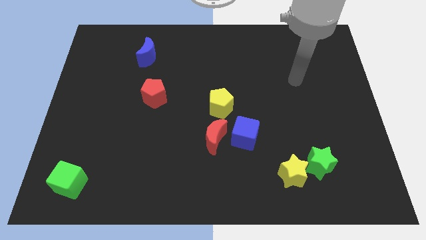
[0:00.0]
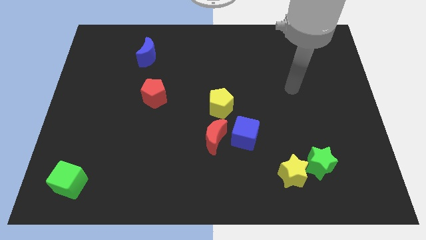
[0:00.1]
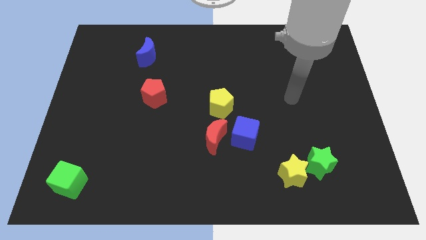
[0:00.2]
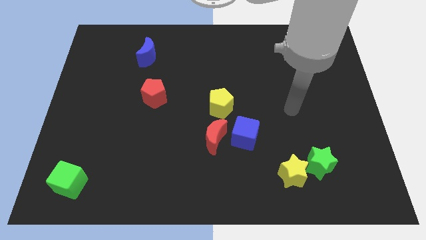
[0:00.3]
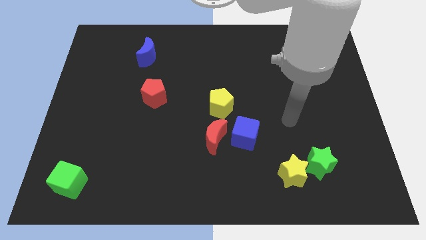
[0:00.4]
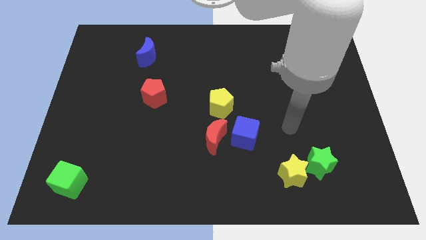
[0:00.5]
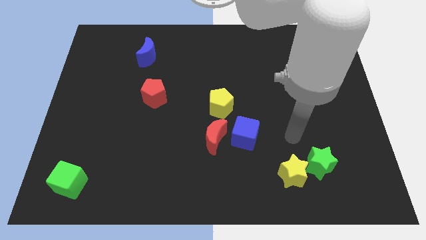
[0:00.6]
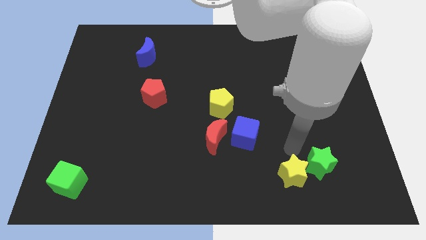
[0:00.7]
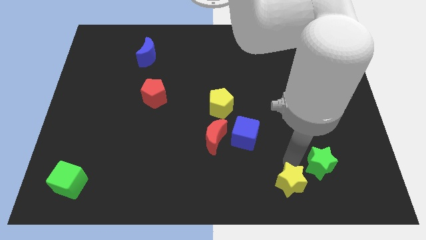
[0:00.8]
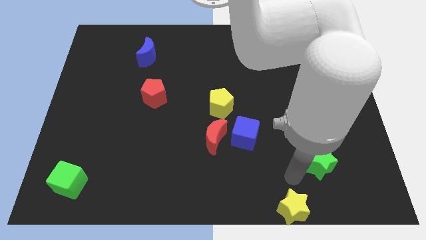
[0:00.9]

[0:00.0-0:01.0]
move the green star away from the yellow star

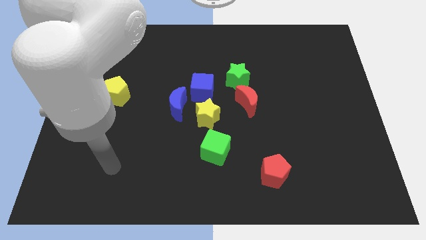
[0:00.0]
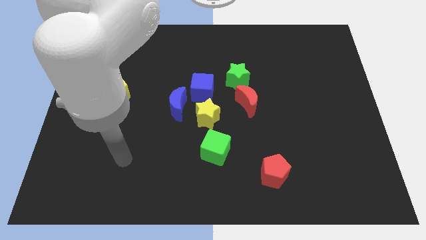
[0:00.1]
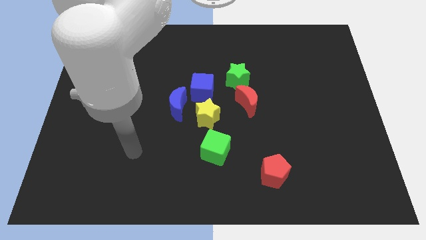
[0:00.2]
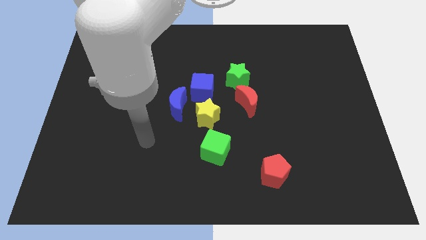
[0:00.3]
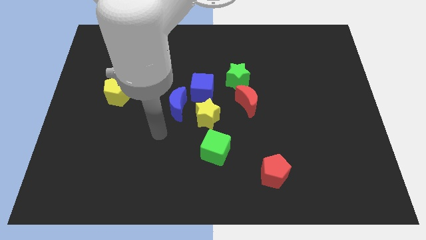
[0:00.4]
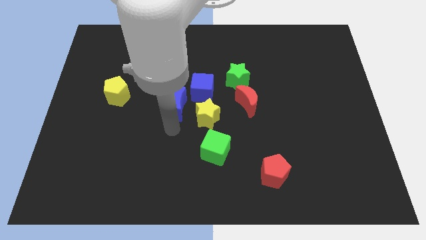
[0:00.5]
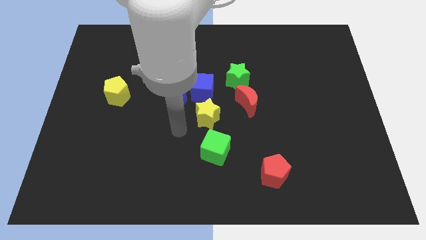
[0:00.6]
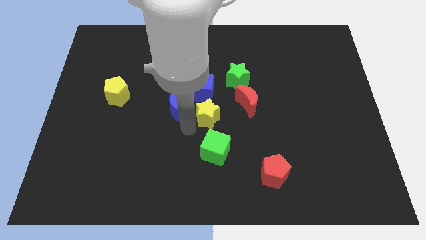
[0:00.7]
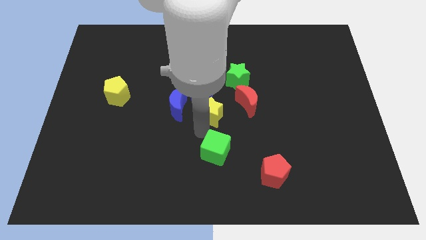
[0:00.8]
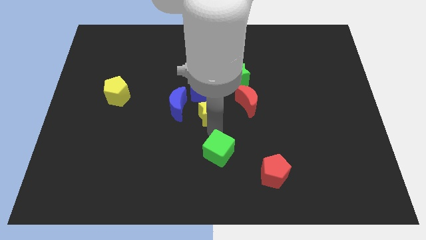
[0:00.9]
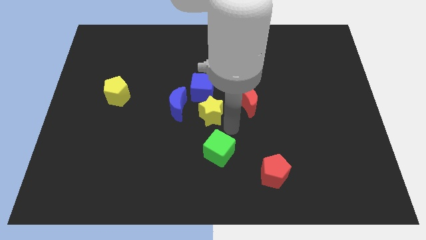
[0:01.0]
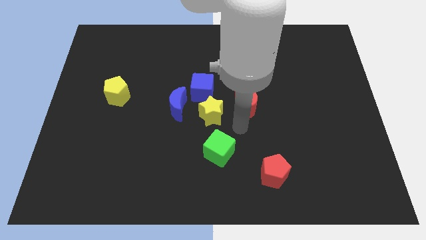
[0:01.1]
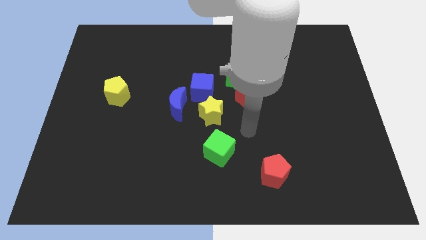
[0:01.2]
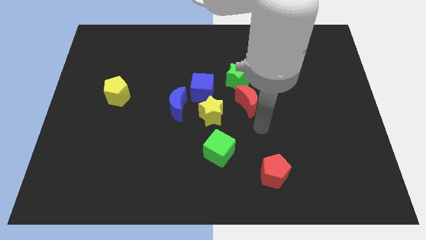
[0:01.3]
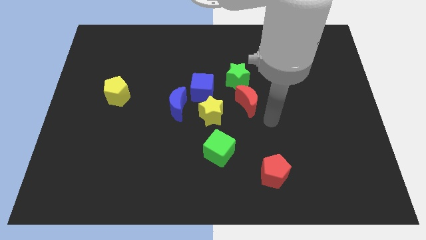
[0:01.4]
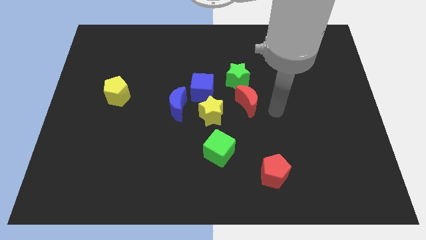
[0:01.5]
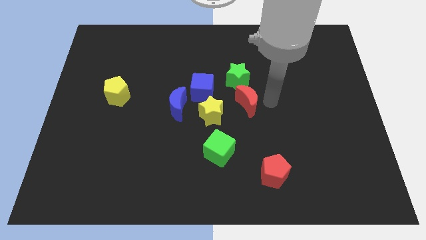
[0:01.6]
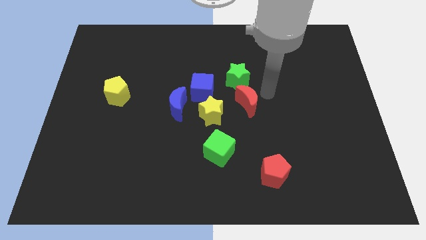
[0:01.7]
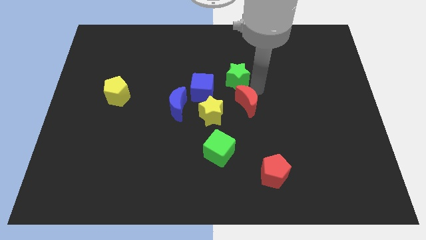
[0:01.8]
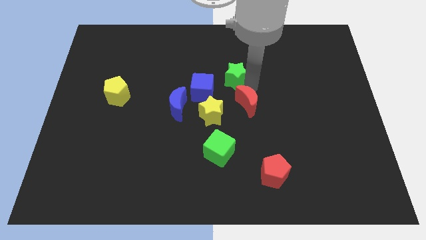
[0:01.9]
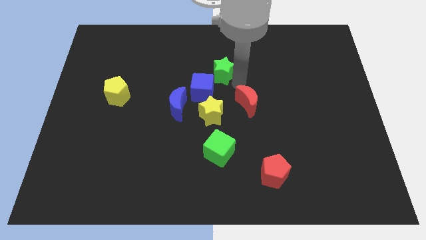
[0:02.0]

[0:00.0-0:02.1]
pull the red moon apart from the green star

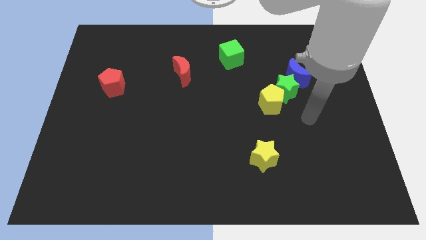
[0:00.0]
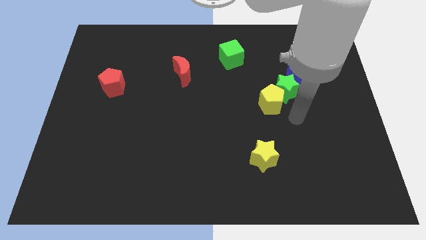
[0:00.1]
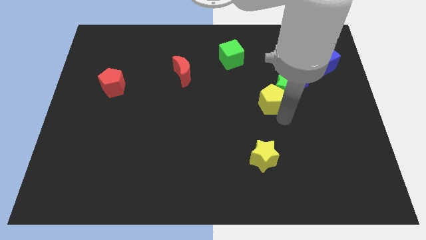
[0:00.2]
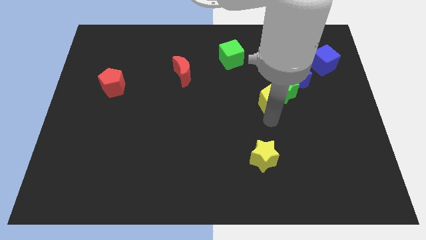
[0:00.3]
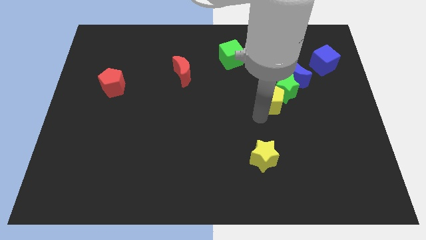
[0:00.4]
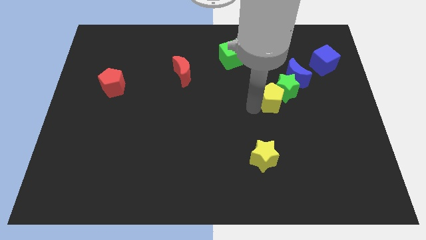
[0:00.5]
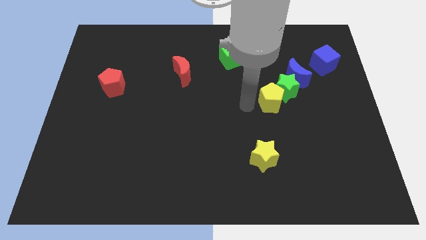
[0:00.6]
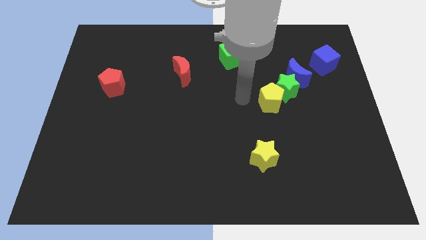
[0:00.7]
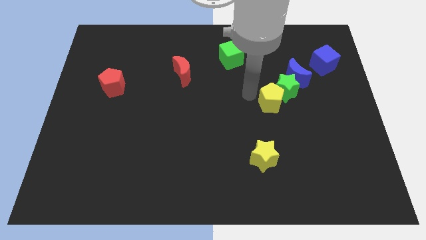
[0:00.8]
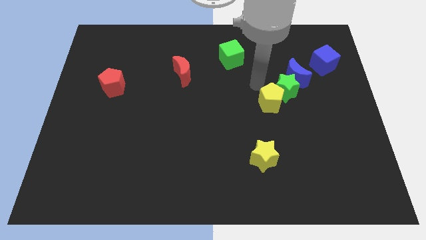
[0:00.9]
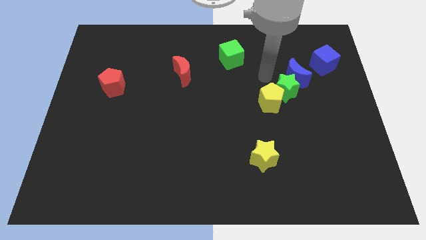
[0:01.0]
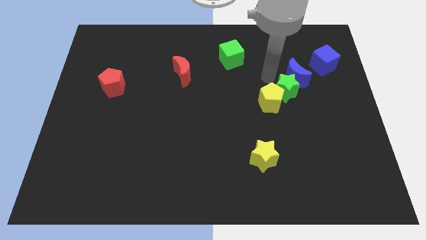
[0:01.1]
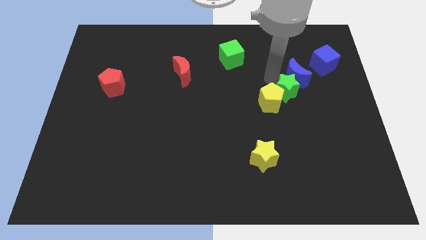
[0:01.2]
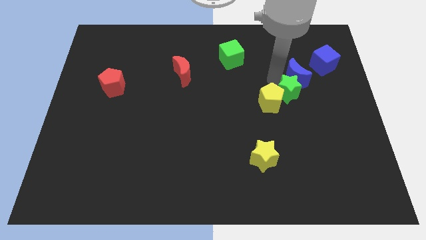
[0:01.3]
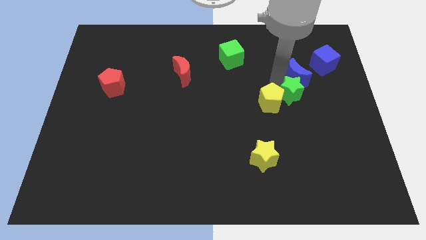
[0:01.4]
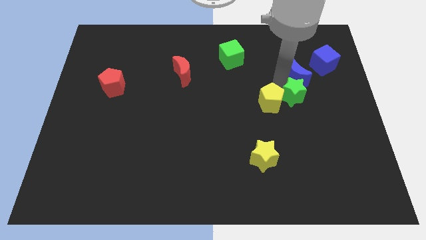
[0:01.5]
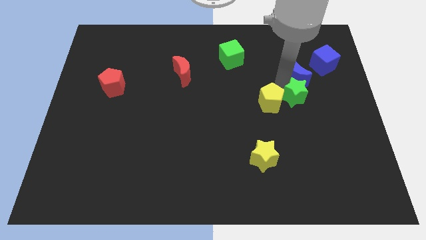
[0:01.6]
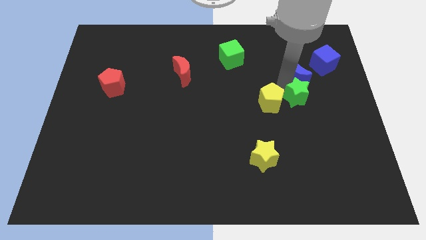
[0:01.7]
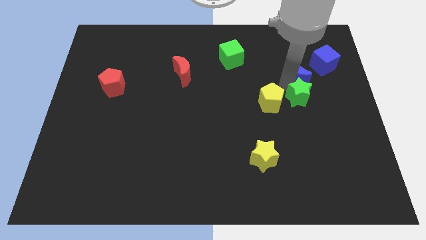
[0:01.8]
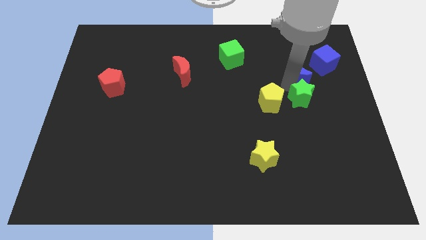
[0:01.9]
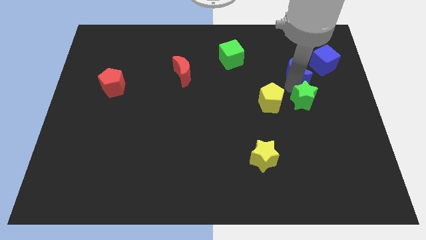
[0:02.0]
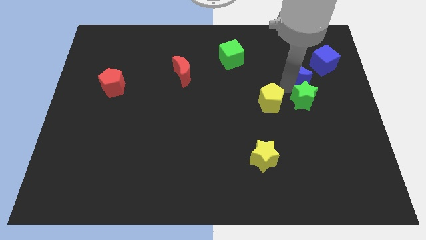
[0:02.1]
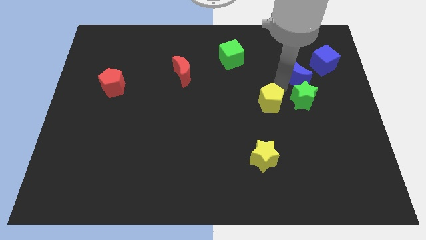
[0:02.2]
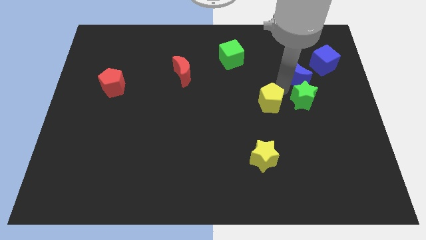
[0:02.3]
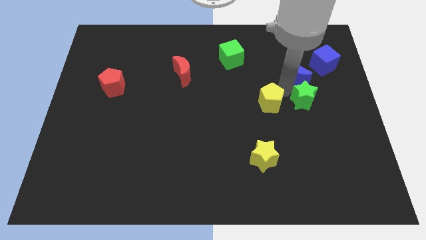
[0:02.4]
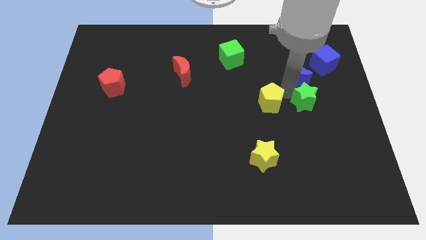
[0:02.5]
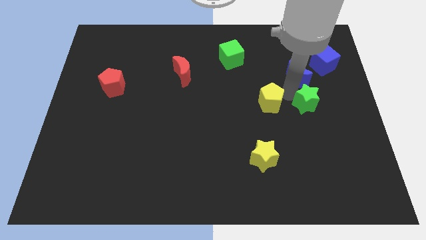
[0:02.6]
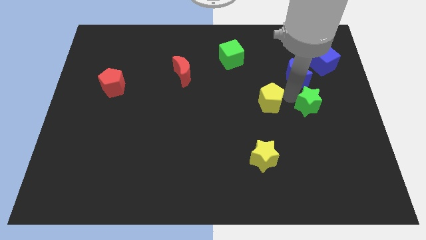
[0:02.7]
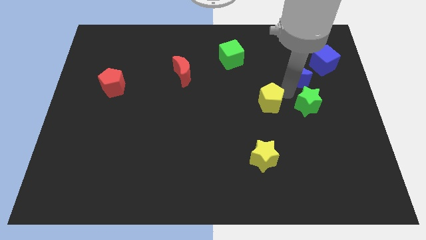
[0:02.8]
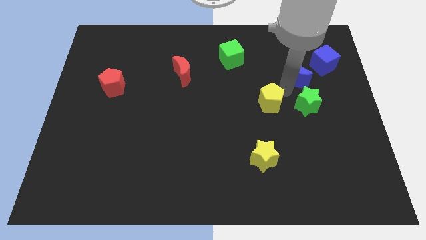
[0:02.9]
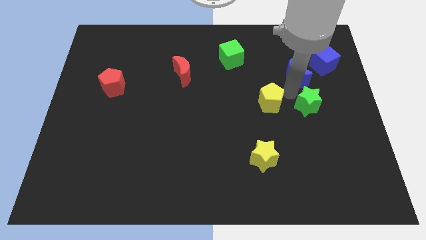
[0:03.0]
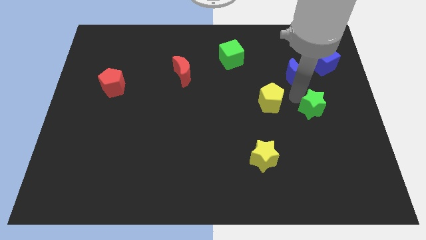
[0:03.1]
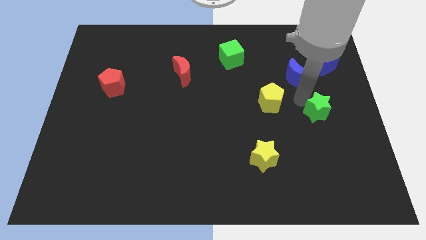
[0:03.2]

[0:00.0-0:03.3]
move the green star away from the blue moon and yellow pentagon

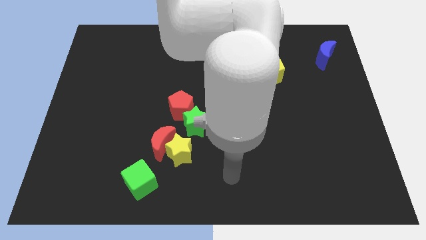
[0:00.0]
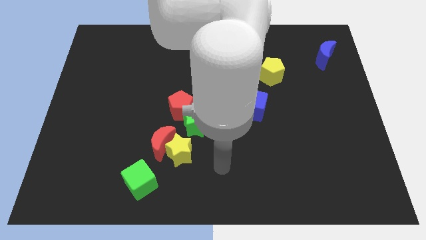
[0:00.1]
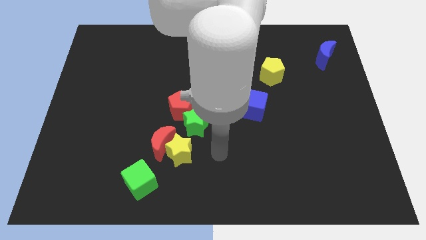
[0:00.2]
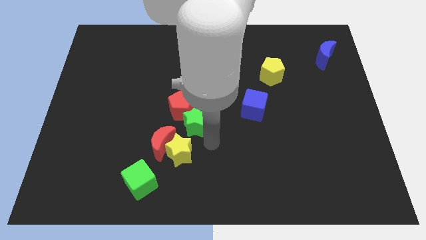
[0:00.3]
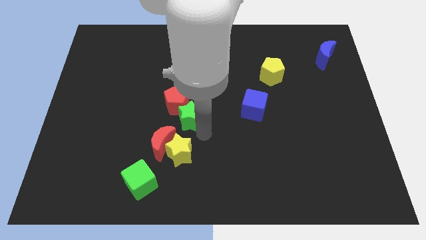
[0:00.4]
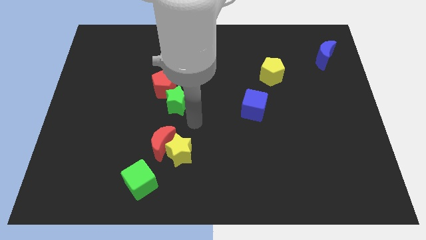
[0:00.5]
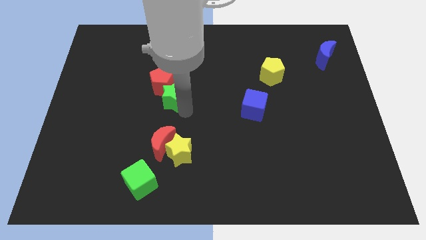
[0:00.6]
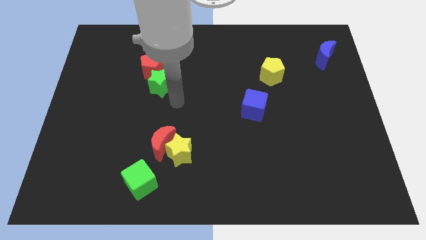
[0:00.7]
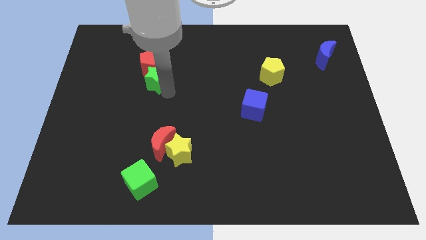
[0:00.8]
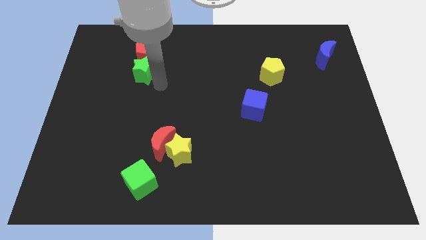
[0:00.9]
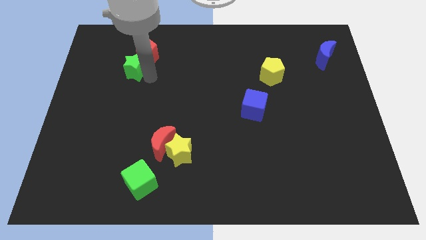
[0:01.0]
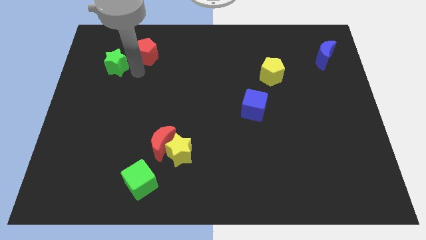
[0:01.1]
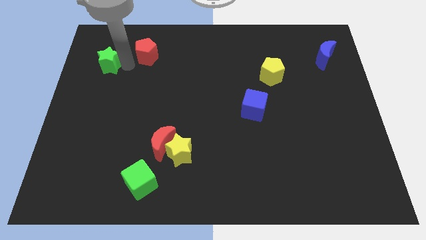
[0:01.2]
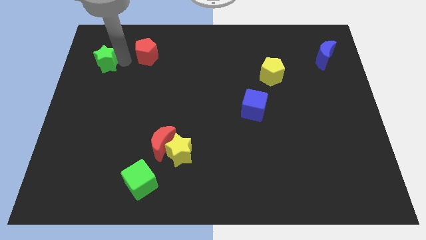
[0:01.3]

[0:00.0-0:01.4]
separate the red pentagon from the green star

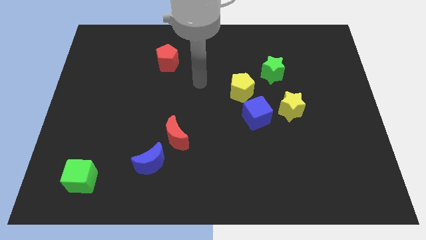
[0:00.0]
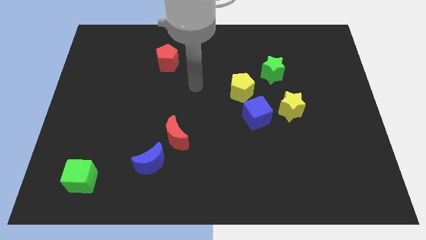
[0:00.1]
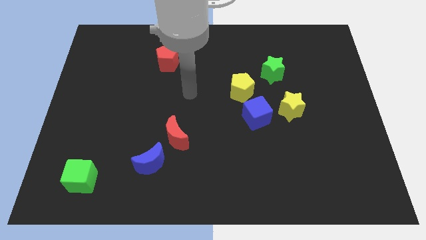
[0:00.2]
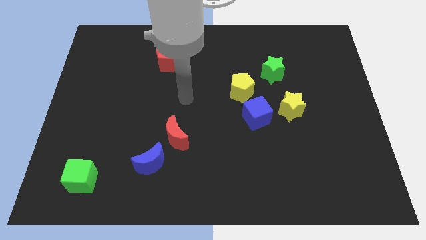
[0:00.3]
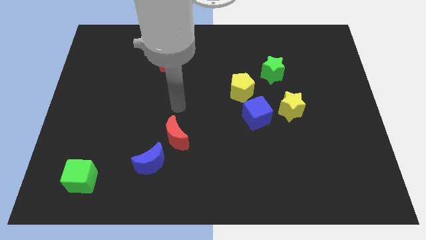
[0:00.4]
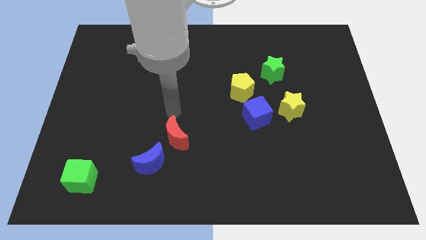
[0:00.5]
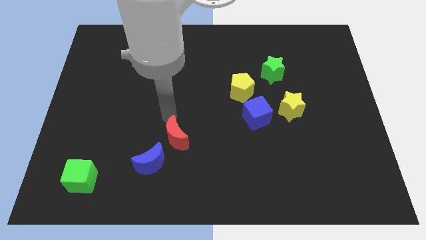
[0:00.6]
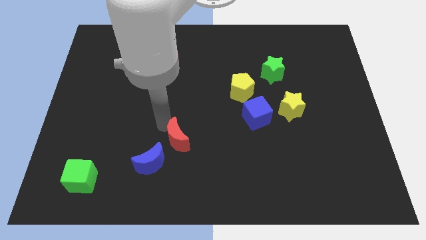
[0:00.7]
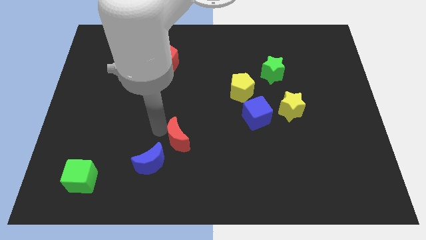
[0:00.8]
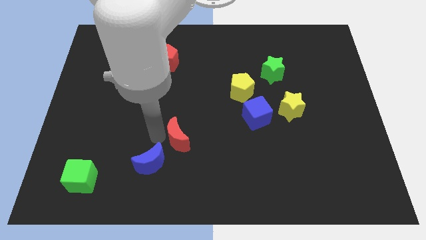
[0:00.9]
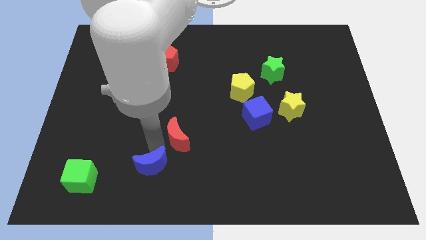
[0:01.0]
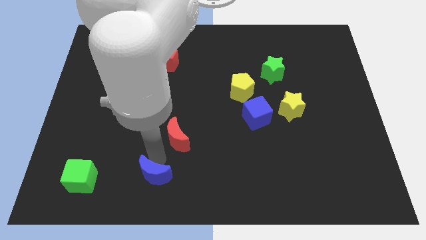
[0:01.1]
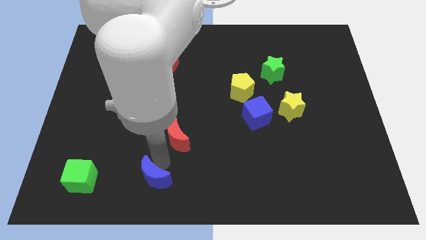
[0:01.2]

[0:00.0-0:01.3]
pull the red moon apart from the blue moon

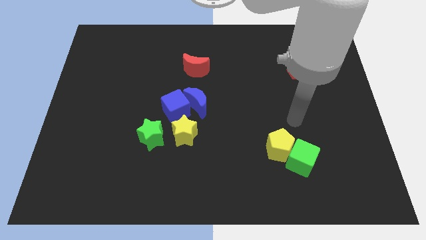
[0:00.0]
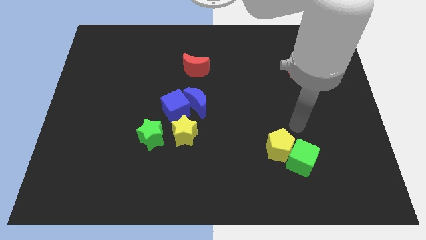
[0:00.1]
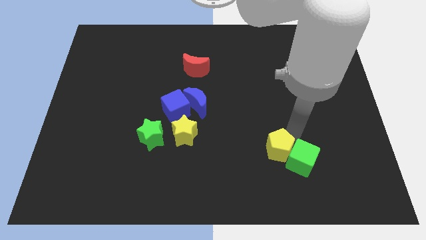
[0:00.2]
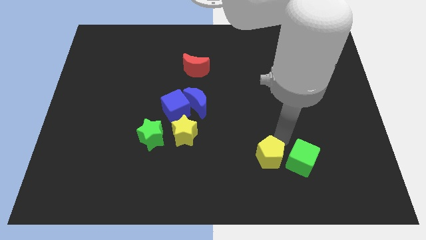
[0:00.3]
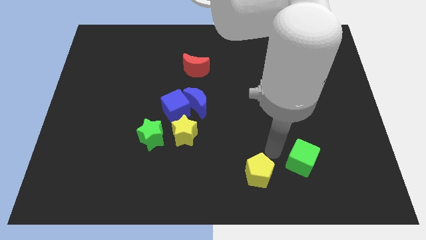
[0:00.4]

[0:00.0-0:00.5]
separate the green cube from the yellow pentagon
